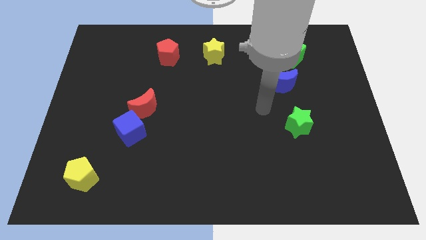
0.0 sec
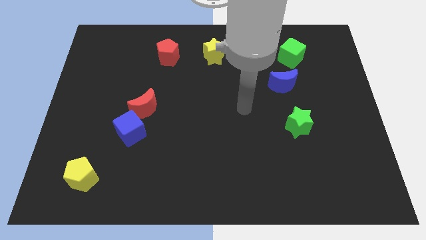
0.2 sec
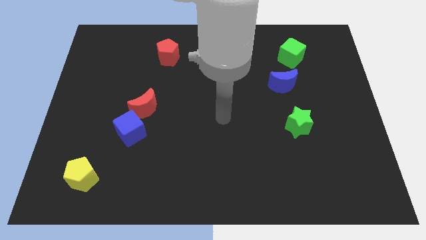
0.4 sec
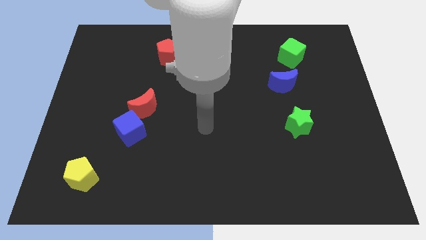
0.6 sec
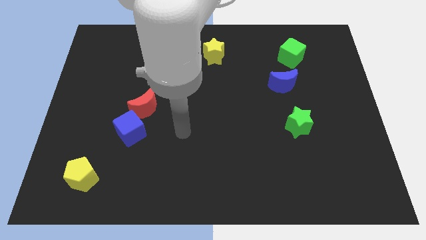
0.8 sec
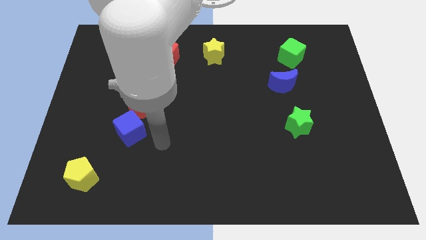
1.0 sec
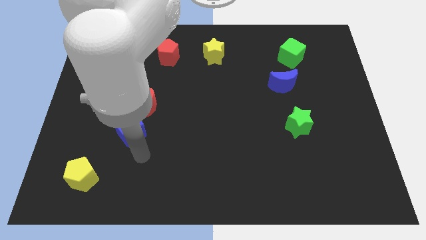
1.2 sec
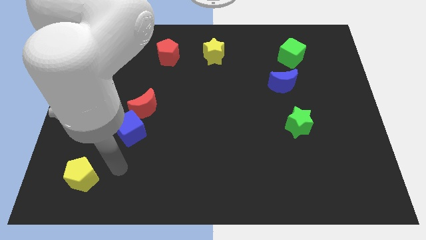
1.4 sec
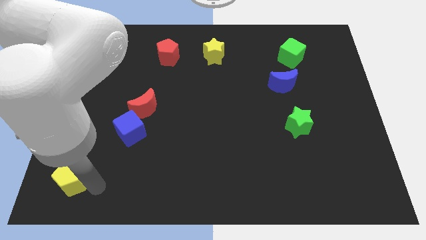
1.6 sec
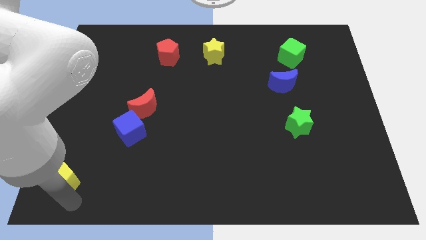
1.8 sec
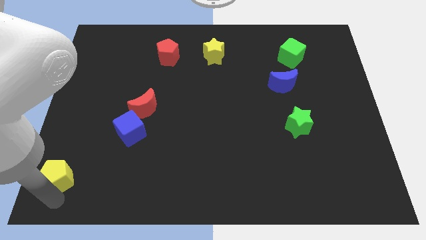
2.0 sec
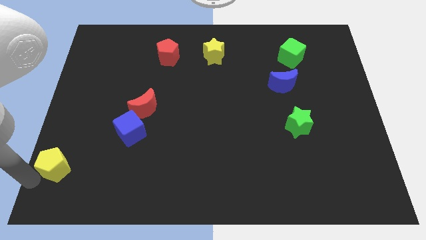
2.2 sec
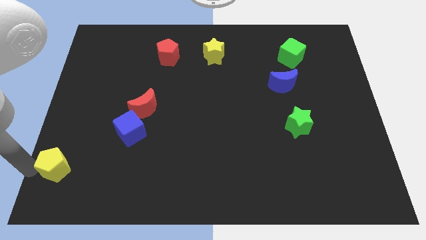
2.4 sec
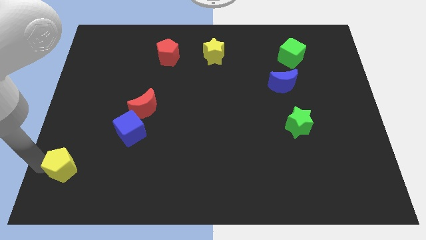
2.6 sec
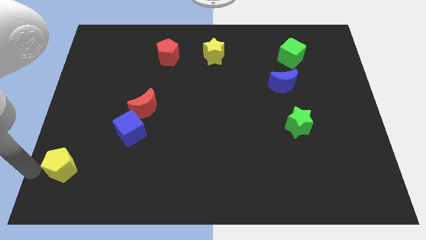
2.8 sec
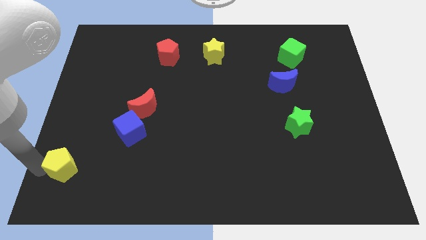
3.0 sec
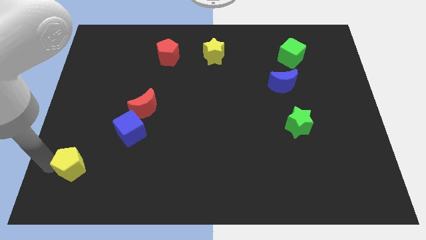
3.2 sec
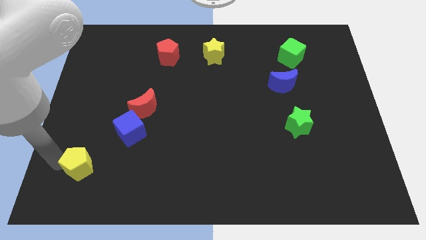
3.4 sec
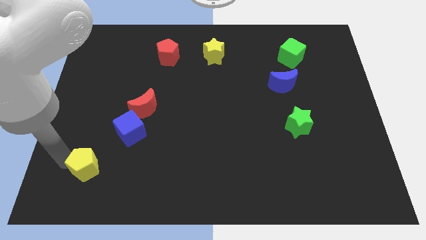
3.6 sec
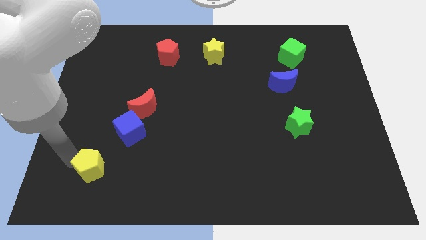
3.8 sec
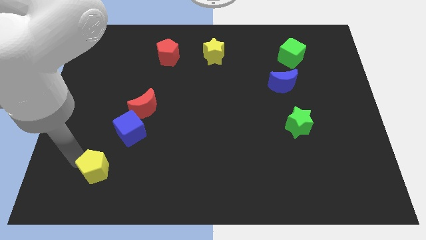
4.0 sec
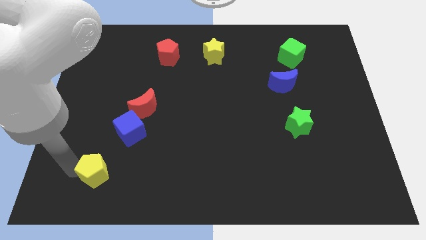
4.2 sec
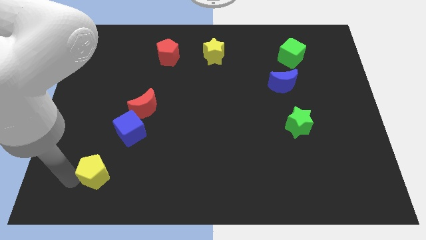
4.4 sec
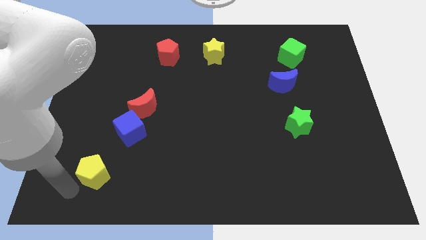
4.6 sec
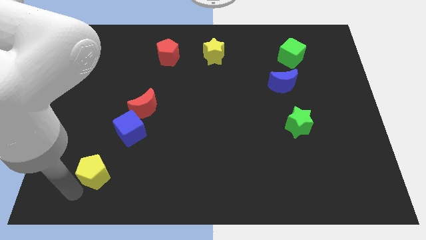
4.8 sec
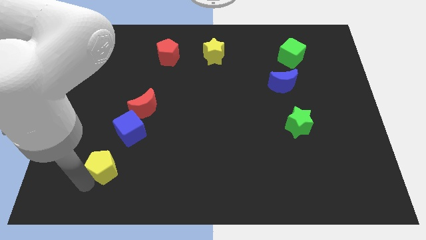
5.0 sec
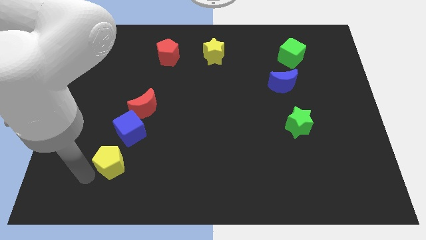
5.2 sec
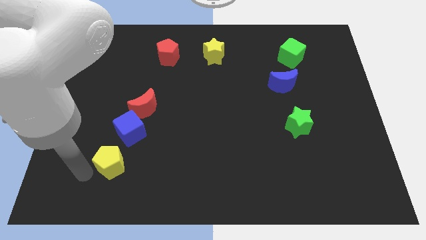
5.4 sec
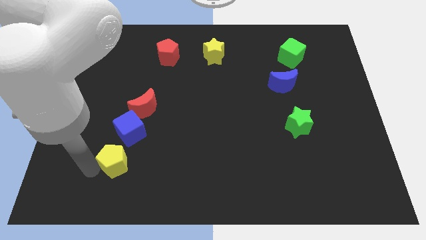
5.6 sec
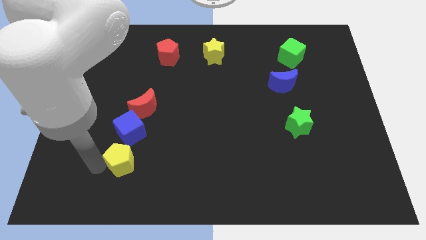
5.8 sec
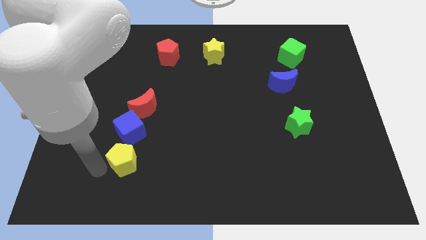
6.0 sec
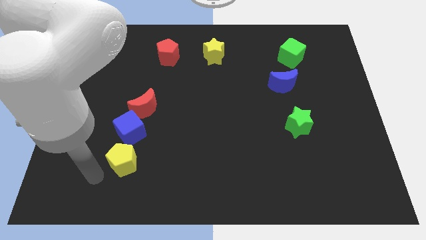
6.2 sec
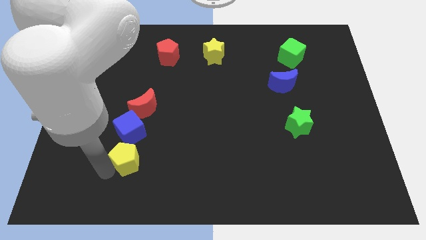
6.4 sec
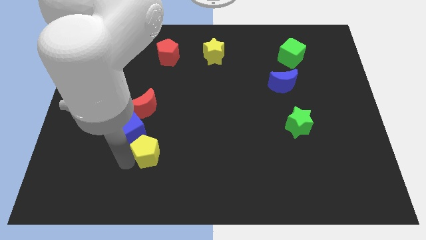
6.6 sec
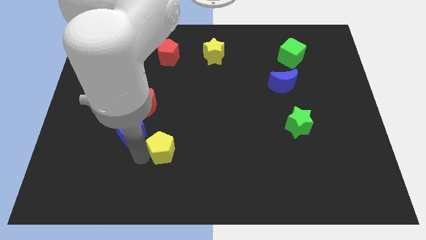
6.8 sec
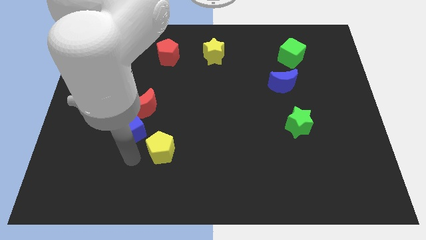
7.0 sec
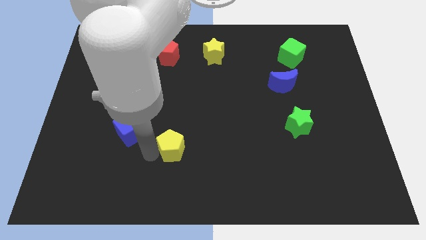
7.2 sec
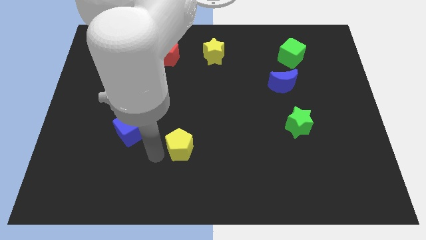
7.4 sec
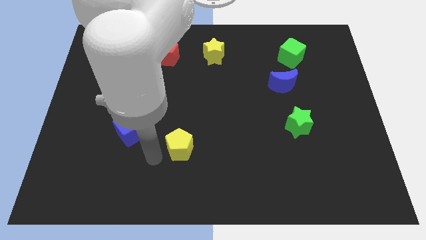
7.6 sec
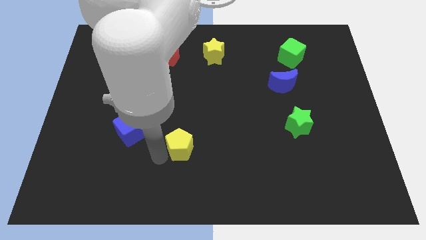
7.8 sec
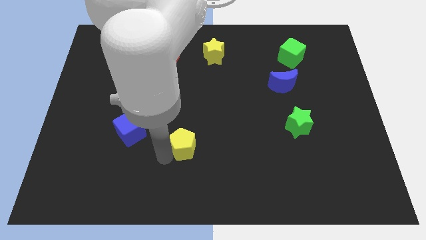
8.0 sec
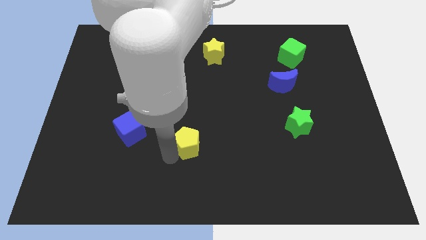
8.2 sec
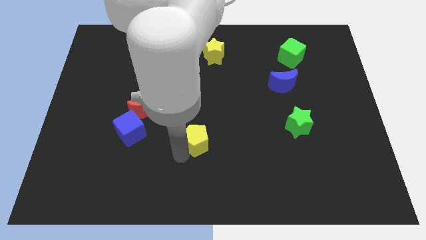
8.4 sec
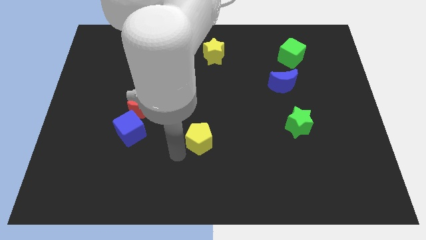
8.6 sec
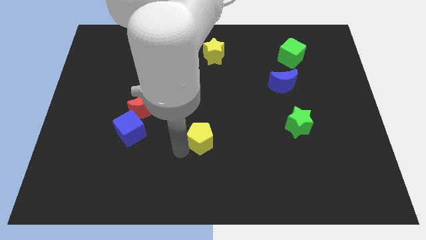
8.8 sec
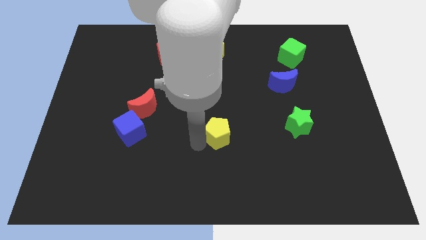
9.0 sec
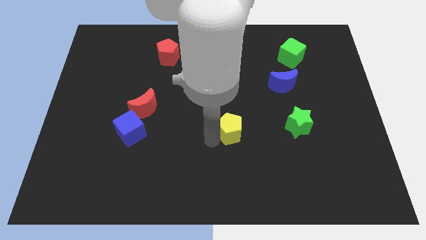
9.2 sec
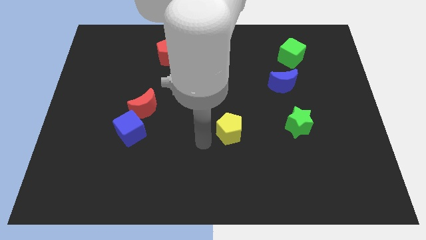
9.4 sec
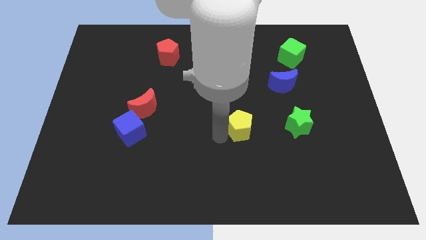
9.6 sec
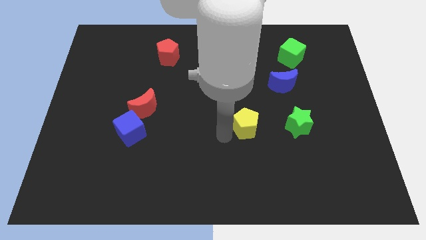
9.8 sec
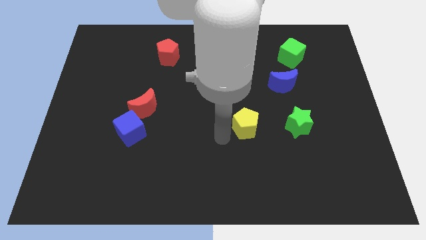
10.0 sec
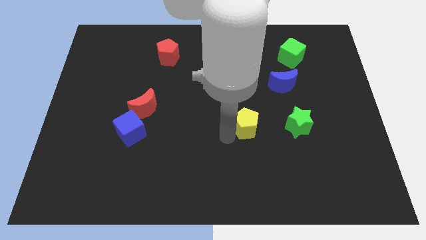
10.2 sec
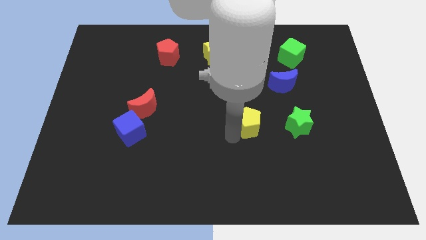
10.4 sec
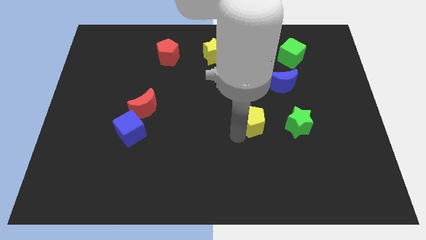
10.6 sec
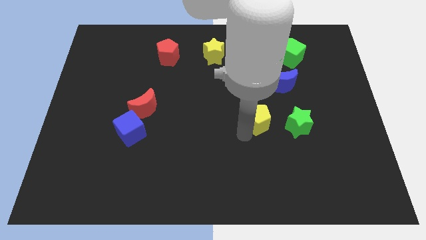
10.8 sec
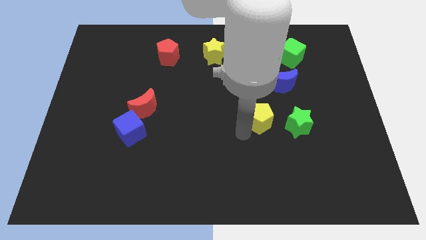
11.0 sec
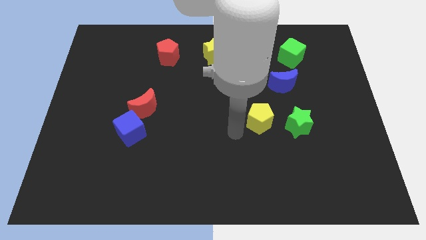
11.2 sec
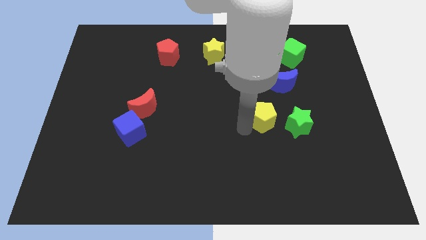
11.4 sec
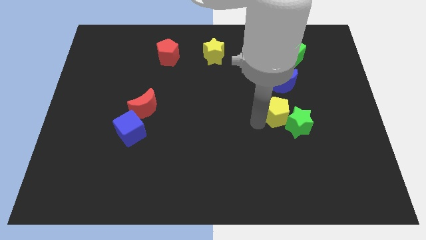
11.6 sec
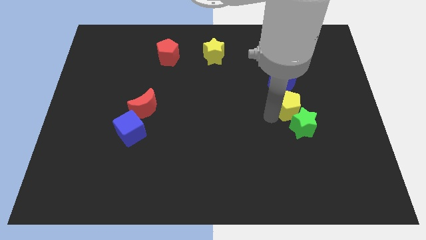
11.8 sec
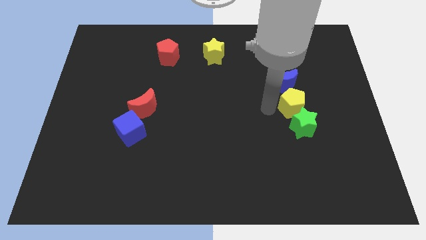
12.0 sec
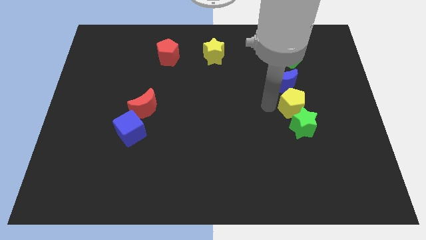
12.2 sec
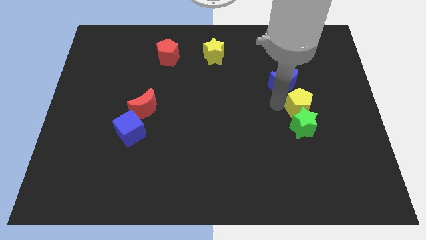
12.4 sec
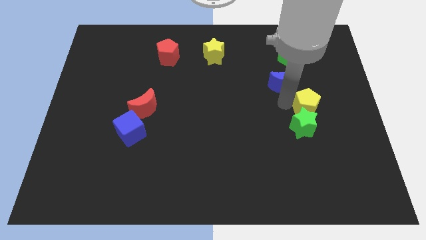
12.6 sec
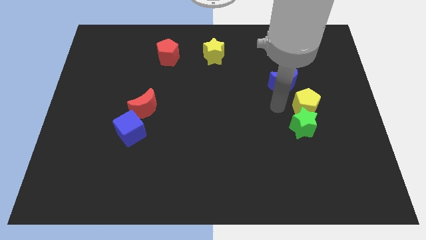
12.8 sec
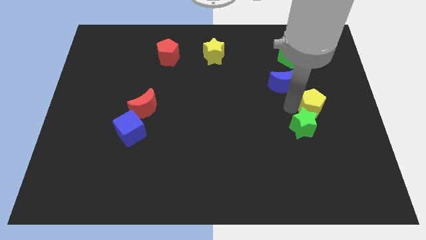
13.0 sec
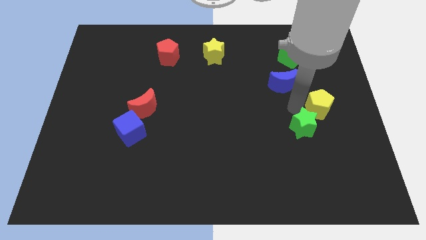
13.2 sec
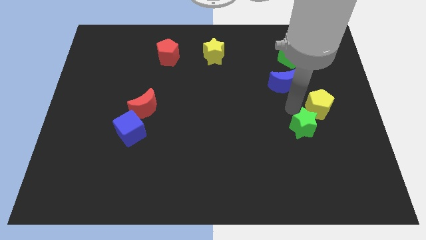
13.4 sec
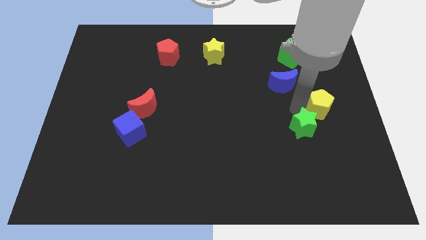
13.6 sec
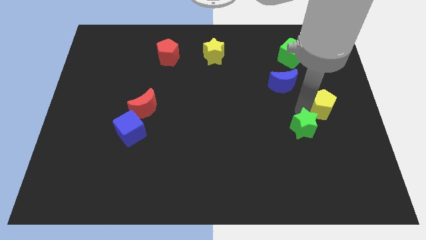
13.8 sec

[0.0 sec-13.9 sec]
move the yellow pentagon to the right side

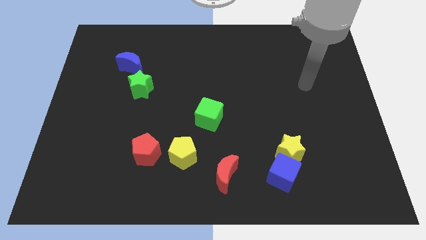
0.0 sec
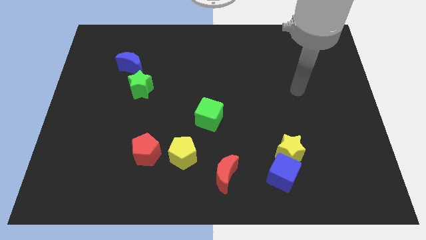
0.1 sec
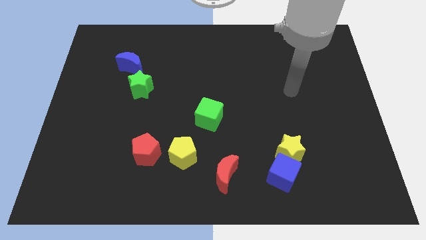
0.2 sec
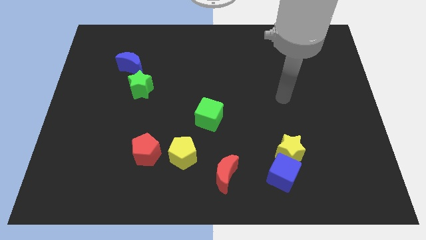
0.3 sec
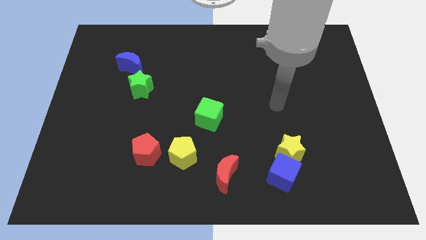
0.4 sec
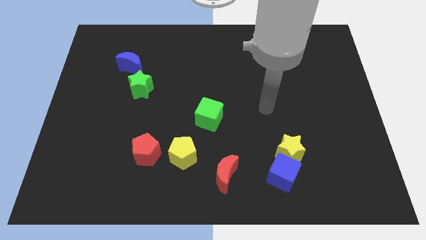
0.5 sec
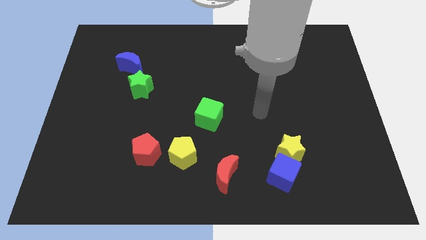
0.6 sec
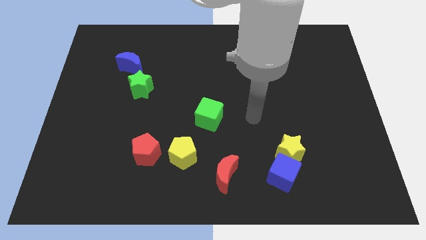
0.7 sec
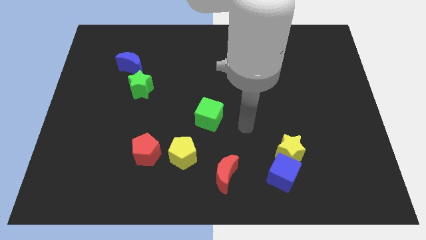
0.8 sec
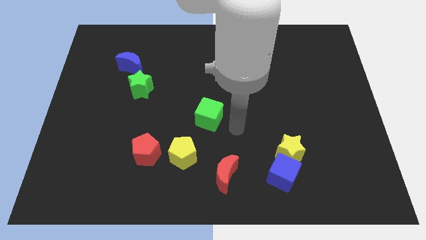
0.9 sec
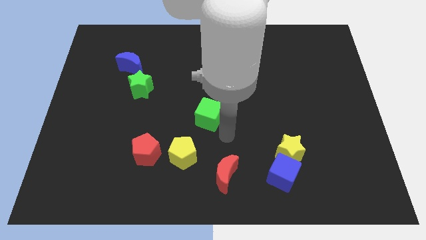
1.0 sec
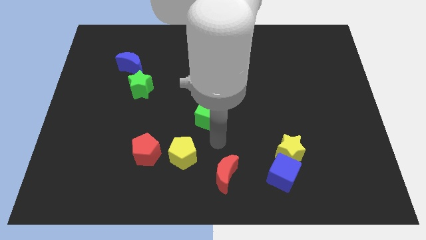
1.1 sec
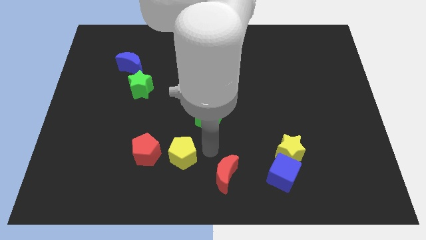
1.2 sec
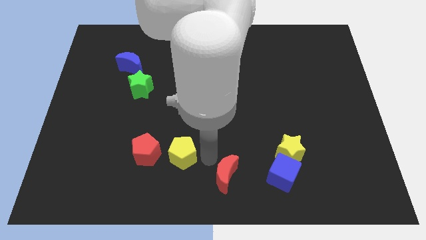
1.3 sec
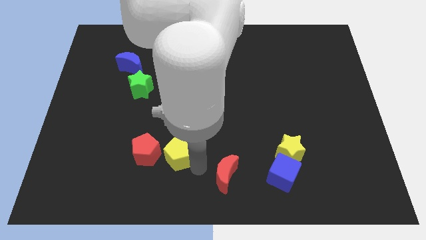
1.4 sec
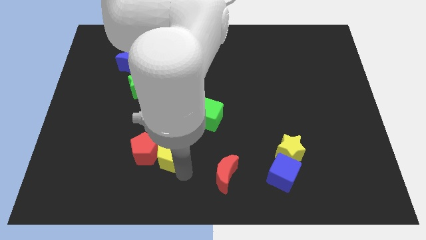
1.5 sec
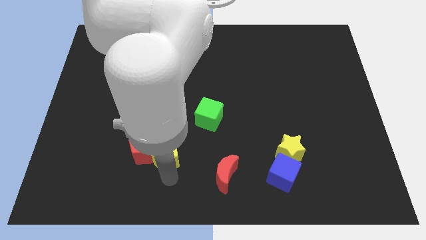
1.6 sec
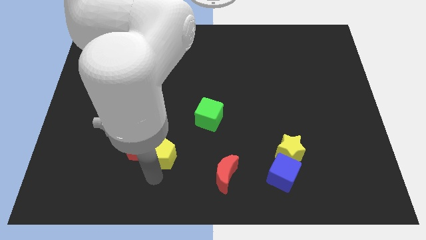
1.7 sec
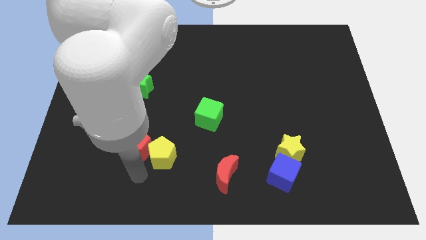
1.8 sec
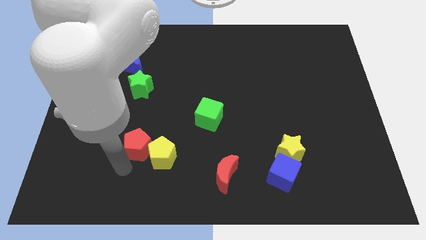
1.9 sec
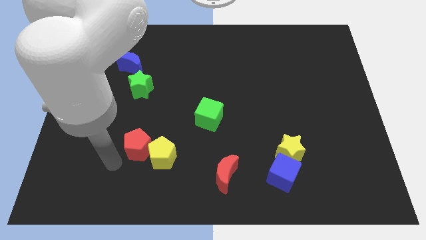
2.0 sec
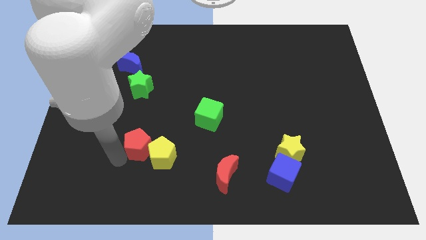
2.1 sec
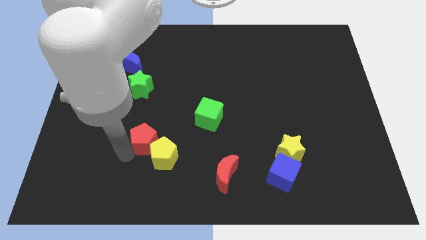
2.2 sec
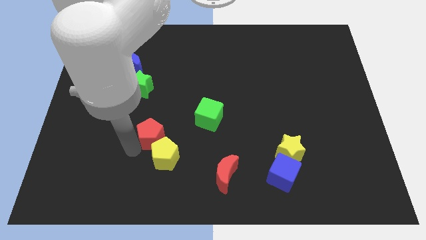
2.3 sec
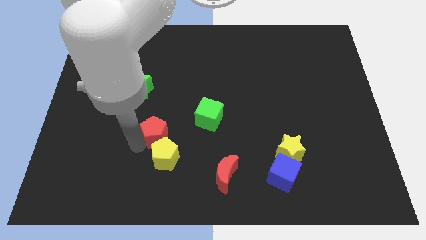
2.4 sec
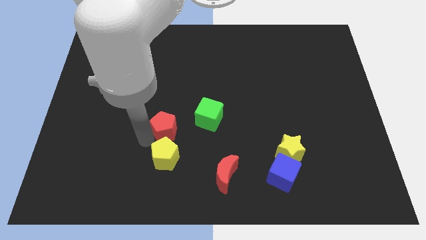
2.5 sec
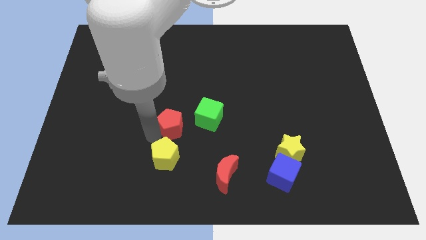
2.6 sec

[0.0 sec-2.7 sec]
slide the red pentagon to the middle of the board
